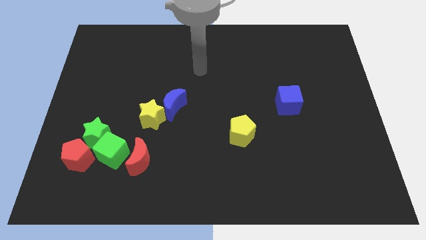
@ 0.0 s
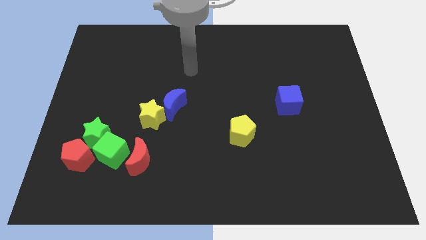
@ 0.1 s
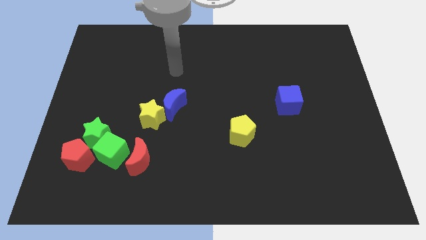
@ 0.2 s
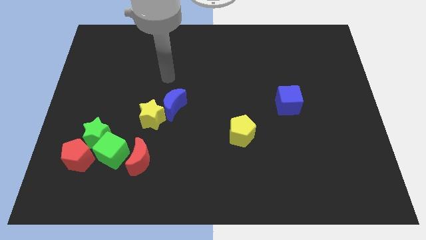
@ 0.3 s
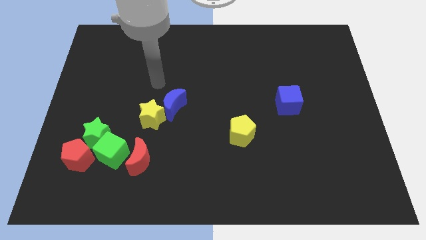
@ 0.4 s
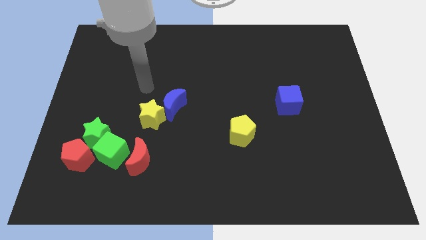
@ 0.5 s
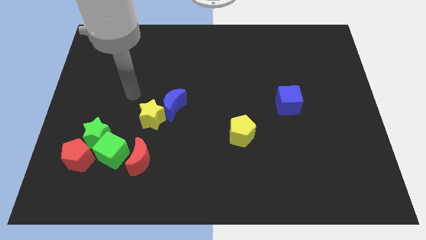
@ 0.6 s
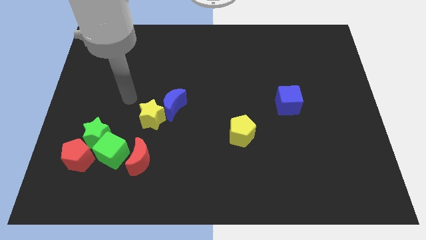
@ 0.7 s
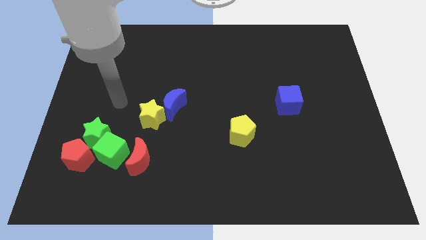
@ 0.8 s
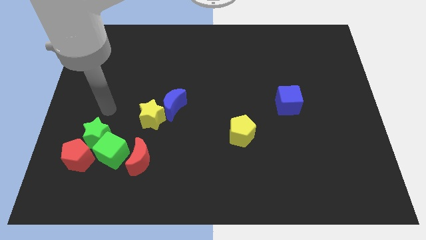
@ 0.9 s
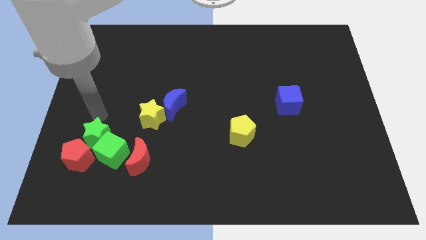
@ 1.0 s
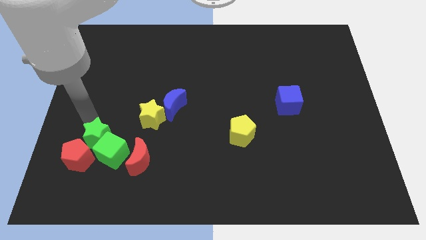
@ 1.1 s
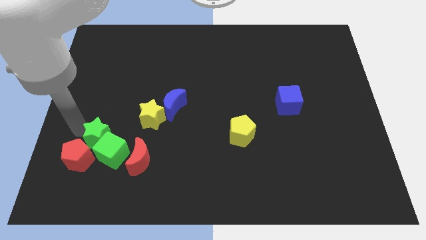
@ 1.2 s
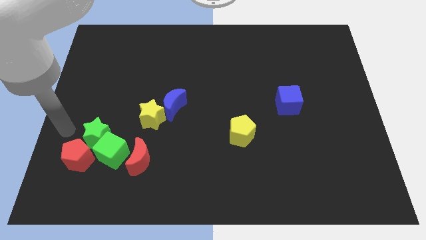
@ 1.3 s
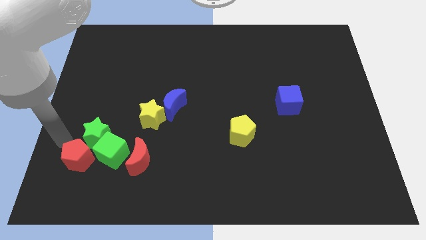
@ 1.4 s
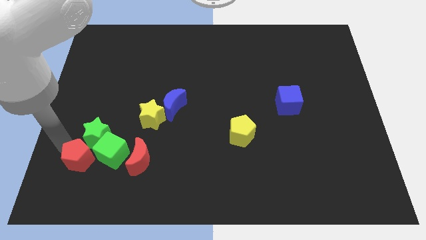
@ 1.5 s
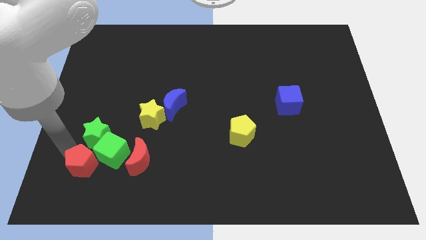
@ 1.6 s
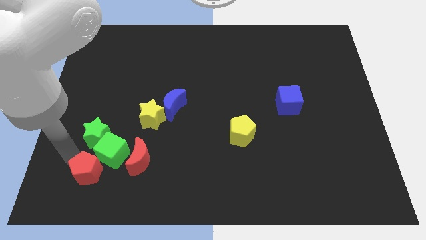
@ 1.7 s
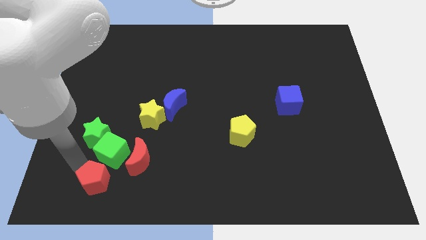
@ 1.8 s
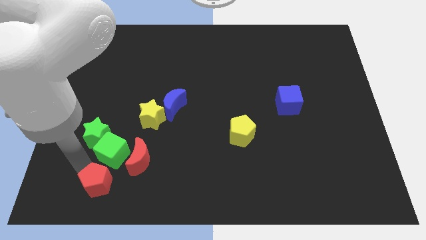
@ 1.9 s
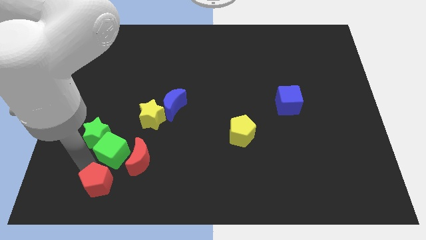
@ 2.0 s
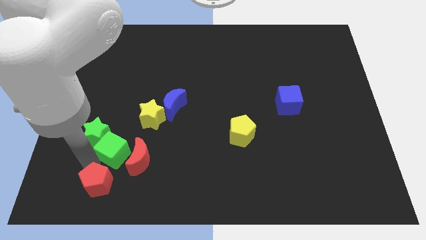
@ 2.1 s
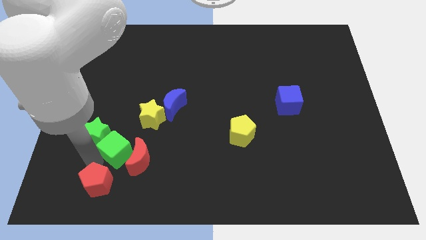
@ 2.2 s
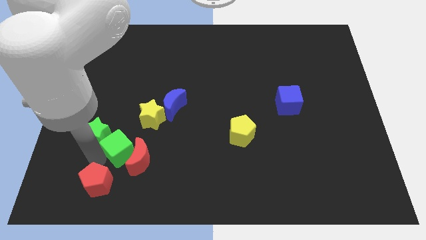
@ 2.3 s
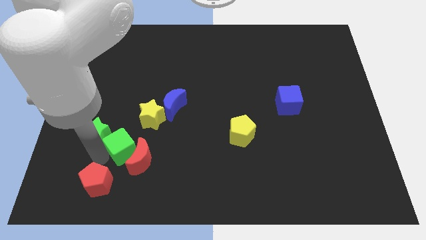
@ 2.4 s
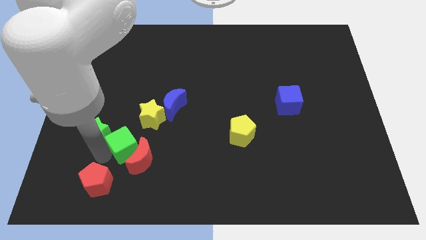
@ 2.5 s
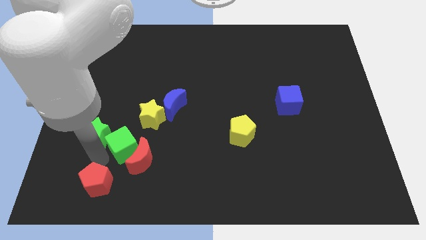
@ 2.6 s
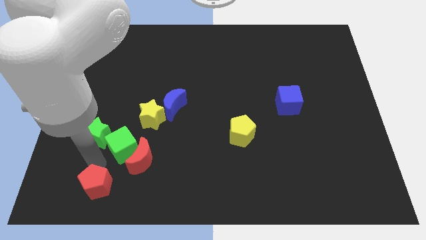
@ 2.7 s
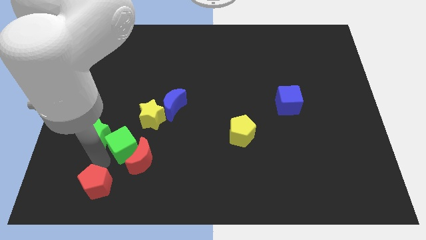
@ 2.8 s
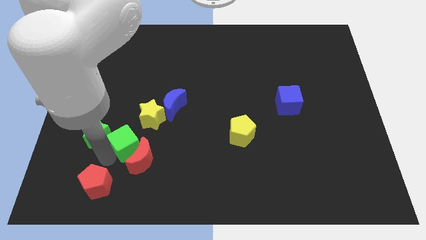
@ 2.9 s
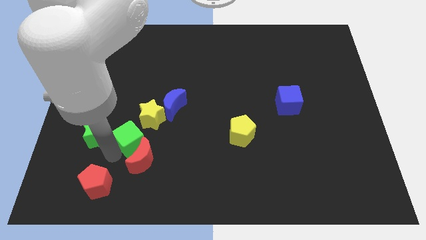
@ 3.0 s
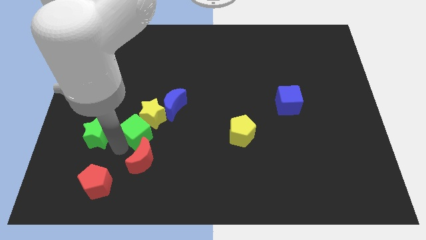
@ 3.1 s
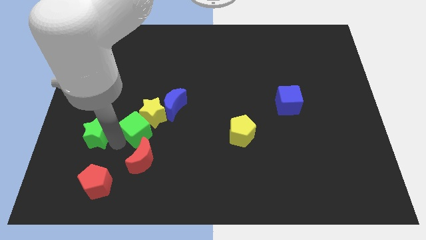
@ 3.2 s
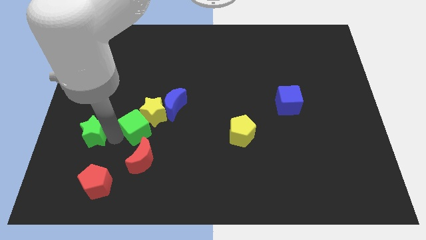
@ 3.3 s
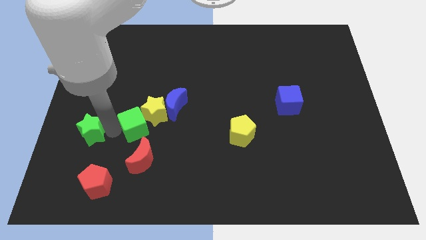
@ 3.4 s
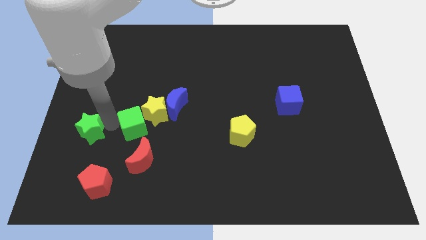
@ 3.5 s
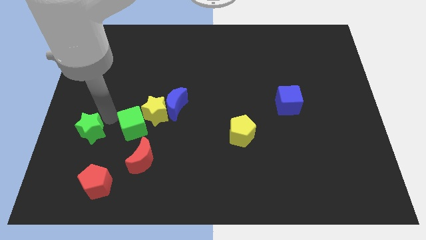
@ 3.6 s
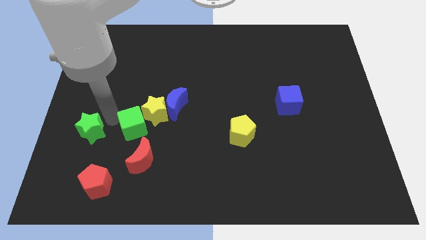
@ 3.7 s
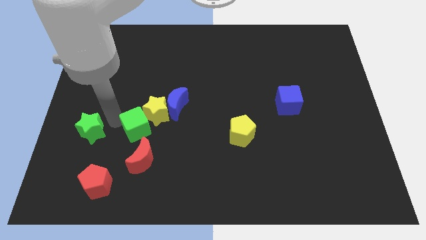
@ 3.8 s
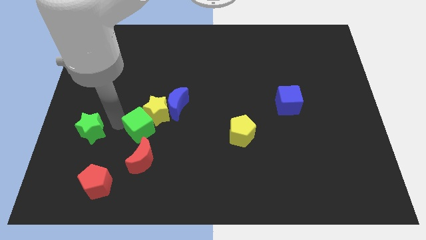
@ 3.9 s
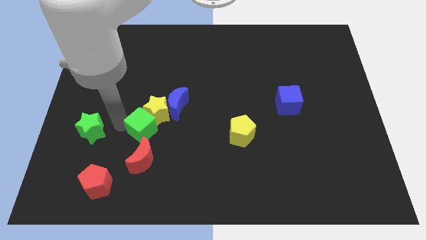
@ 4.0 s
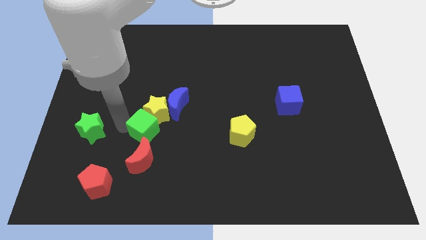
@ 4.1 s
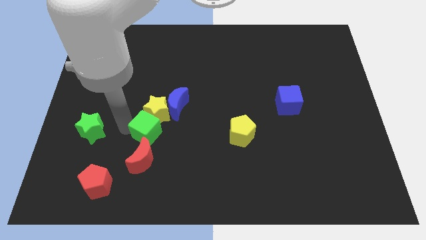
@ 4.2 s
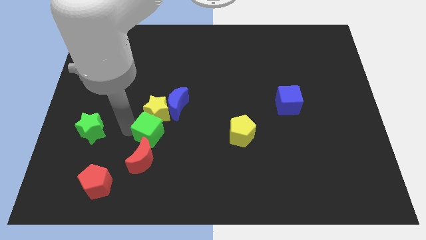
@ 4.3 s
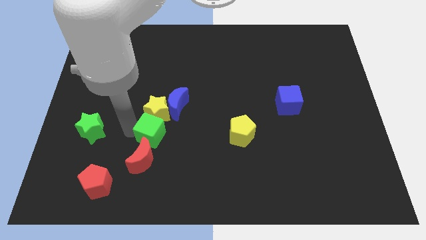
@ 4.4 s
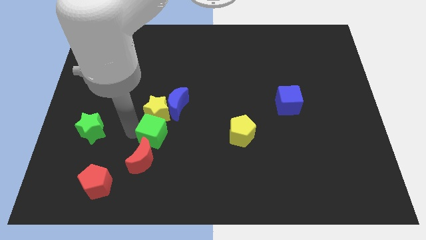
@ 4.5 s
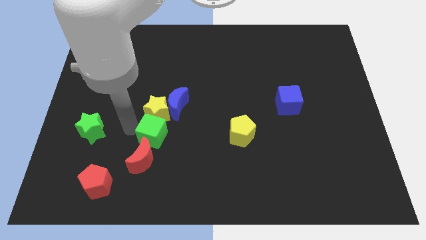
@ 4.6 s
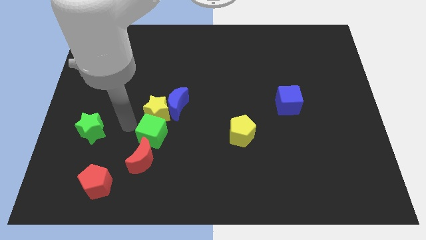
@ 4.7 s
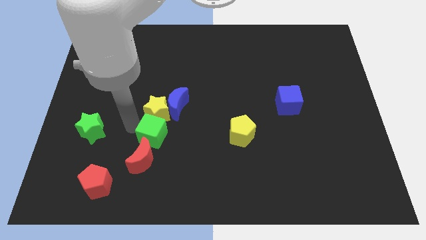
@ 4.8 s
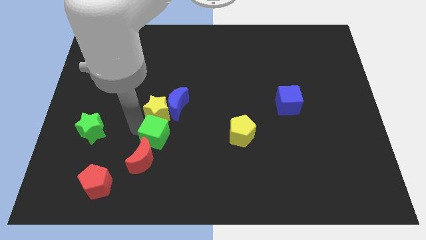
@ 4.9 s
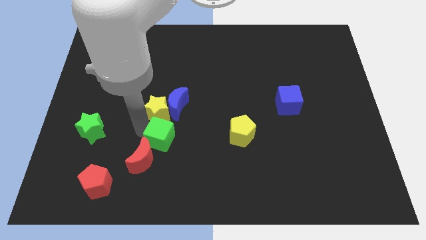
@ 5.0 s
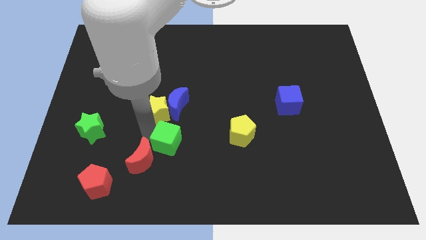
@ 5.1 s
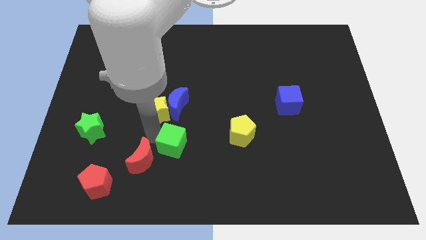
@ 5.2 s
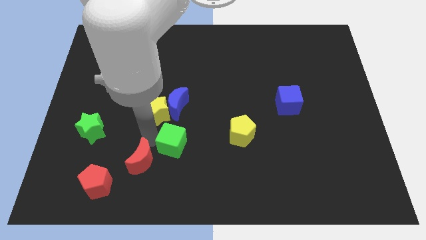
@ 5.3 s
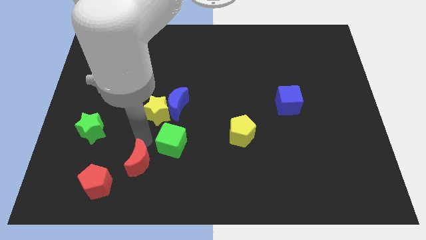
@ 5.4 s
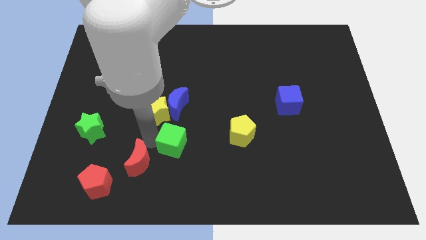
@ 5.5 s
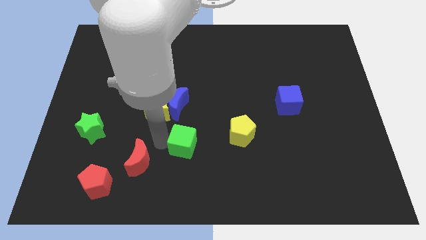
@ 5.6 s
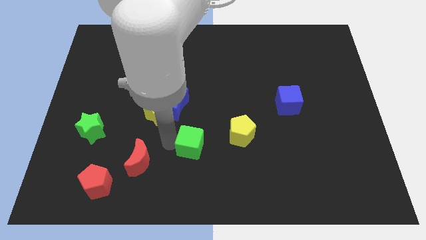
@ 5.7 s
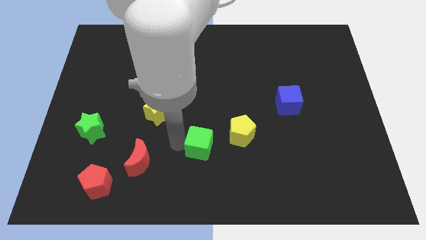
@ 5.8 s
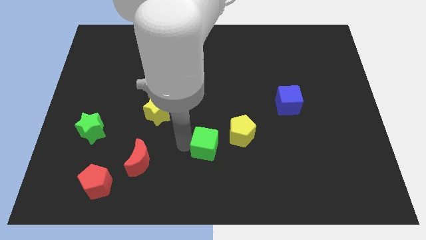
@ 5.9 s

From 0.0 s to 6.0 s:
move the green cube to the right

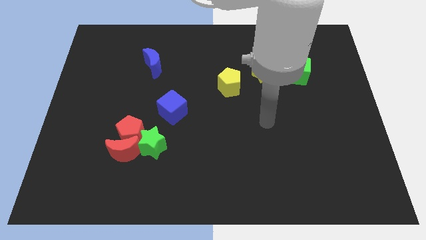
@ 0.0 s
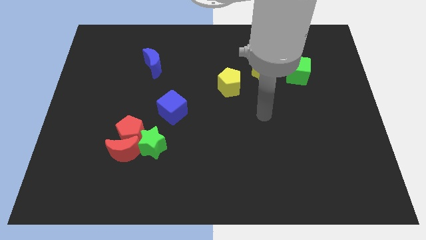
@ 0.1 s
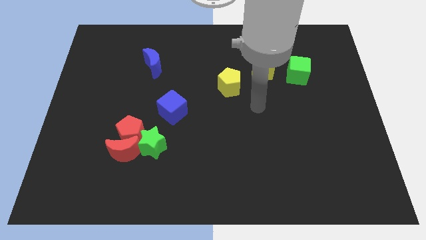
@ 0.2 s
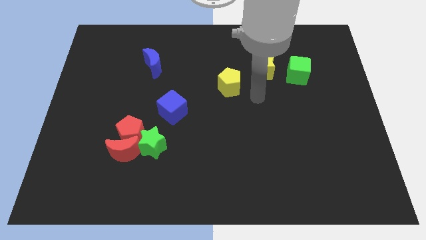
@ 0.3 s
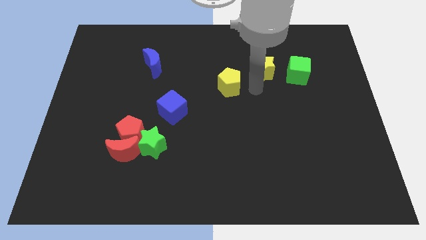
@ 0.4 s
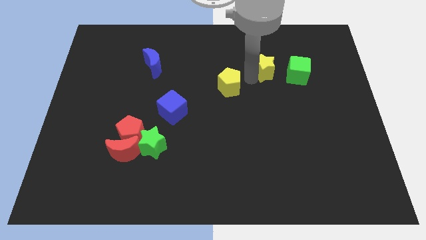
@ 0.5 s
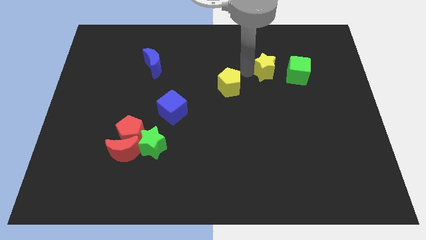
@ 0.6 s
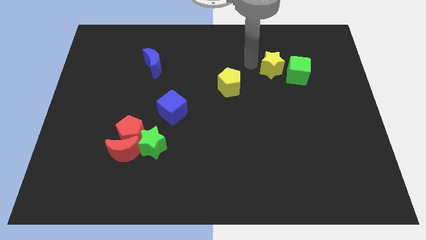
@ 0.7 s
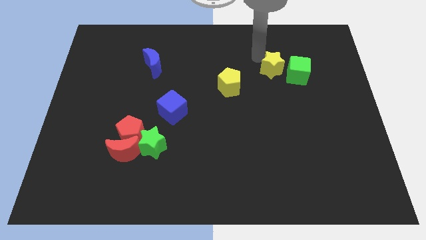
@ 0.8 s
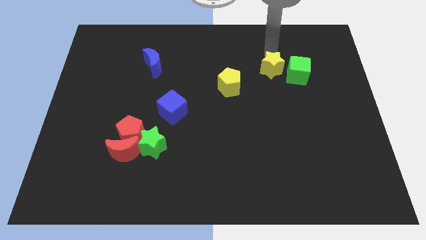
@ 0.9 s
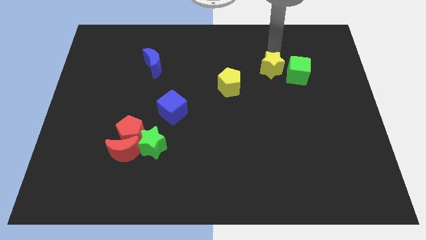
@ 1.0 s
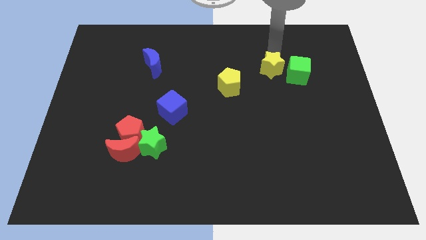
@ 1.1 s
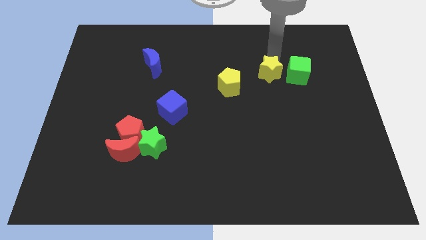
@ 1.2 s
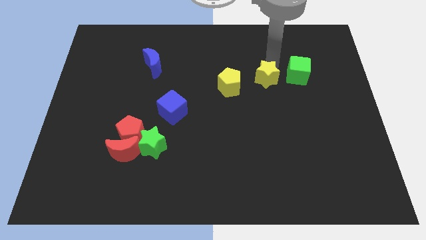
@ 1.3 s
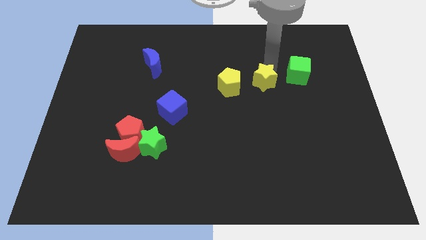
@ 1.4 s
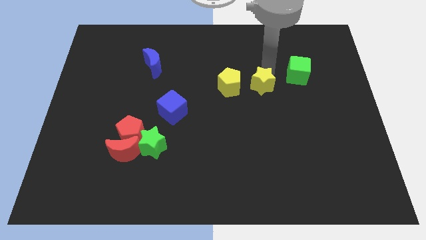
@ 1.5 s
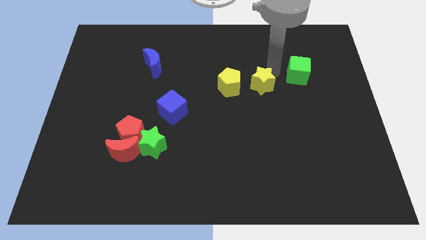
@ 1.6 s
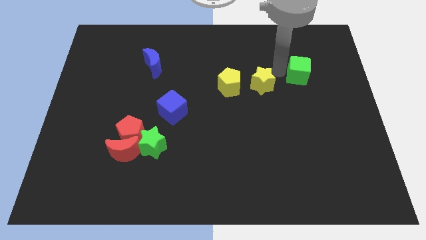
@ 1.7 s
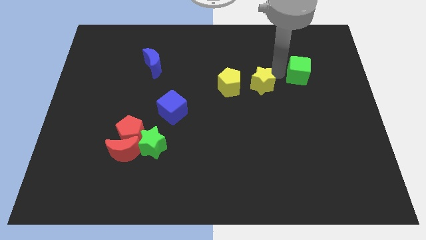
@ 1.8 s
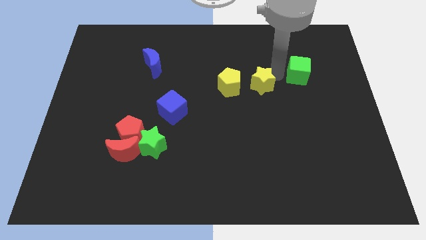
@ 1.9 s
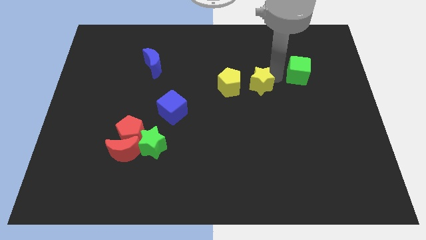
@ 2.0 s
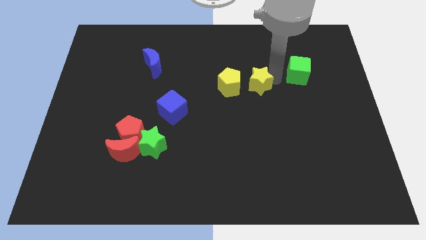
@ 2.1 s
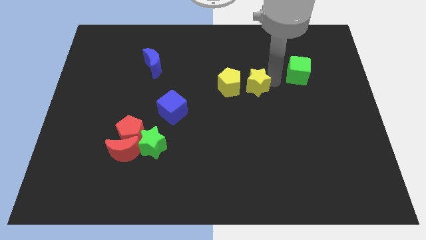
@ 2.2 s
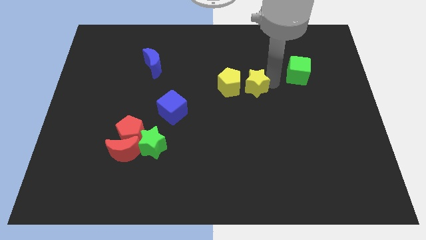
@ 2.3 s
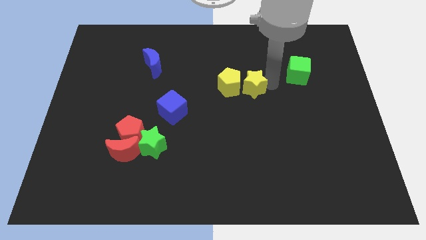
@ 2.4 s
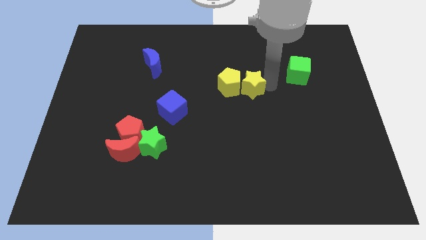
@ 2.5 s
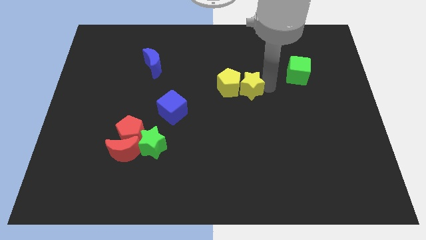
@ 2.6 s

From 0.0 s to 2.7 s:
slide the yellow star a bit down and to the left diagonally
